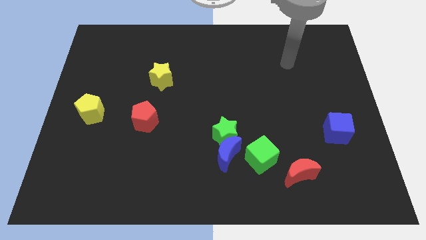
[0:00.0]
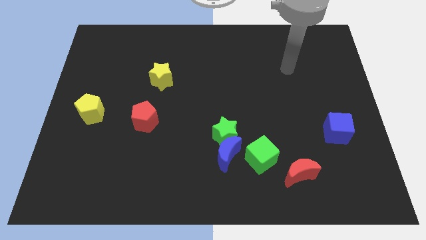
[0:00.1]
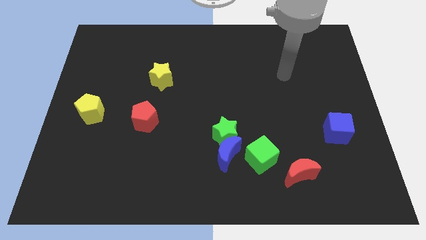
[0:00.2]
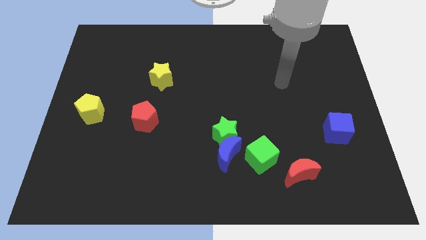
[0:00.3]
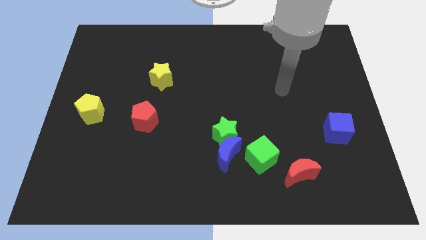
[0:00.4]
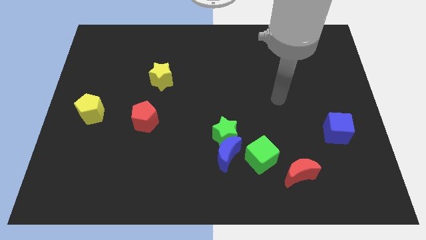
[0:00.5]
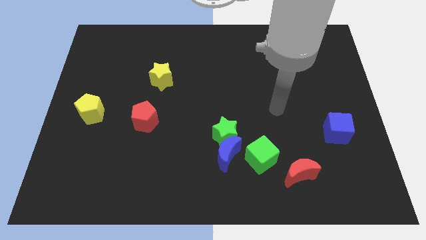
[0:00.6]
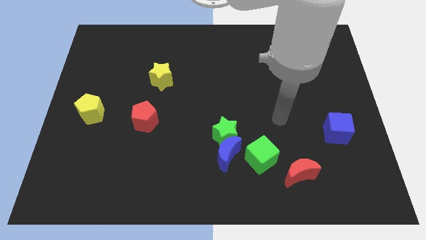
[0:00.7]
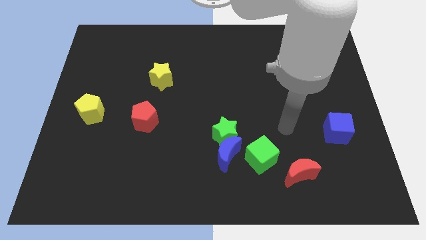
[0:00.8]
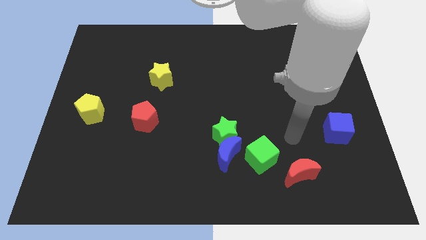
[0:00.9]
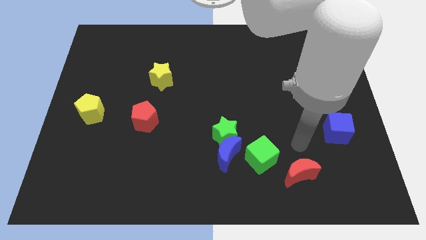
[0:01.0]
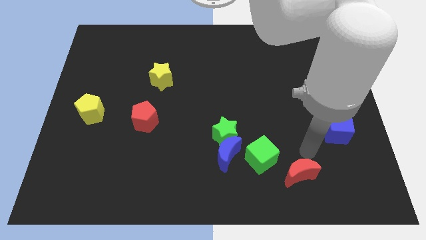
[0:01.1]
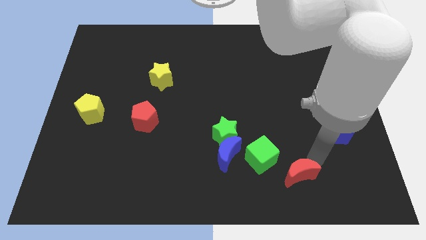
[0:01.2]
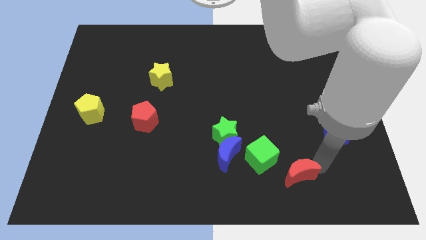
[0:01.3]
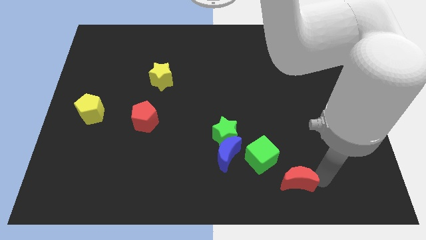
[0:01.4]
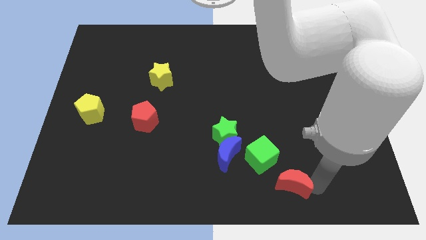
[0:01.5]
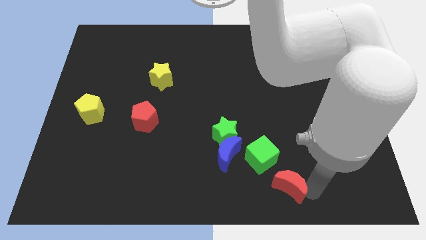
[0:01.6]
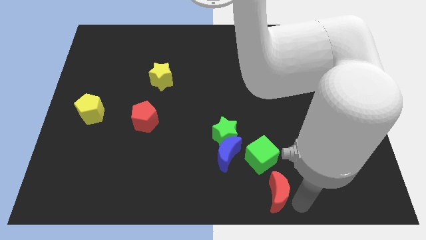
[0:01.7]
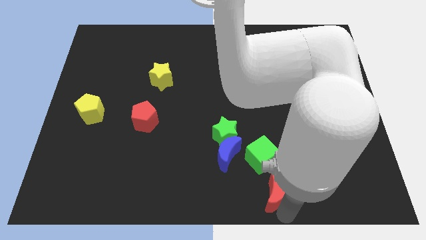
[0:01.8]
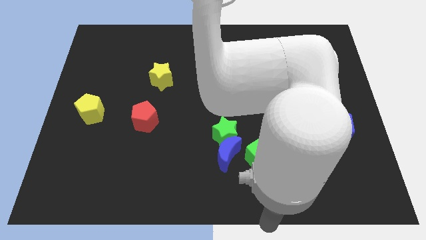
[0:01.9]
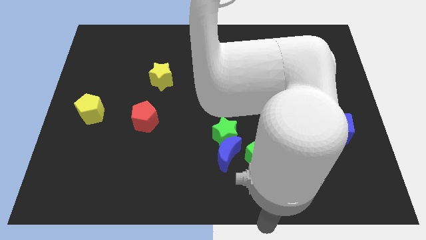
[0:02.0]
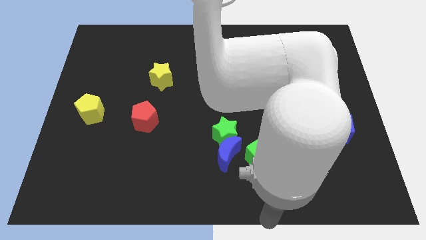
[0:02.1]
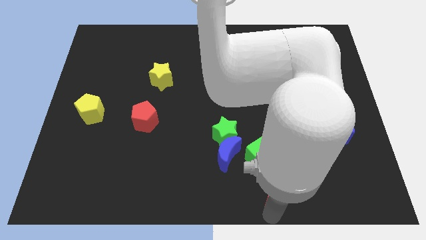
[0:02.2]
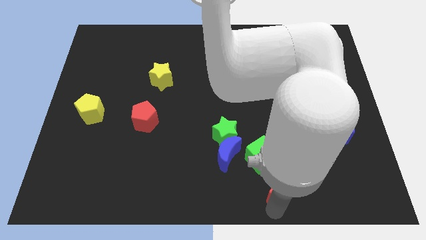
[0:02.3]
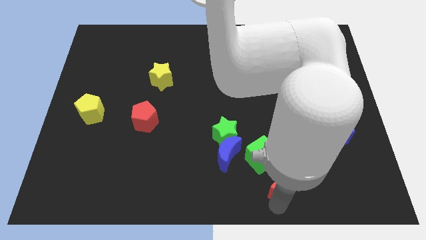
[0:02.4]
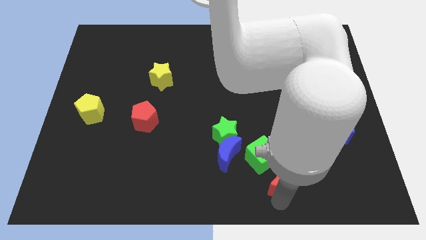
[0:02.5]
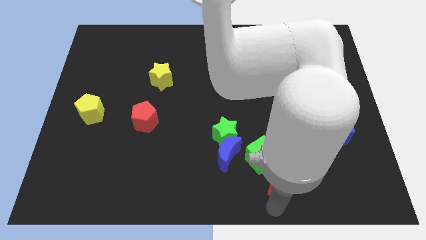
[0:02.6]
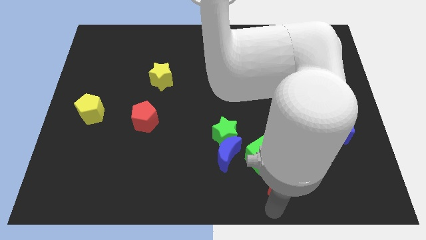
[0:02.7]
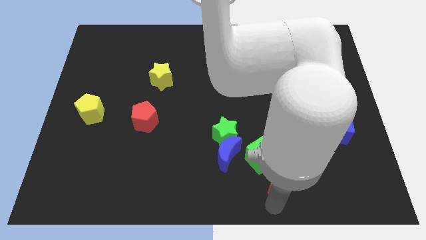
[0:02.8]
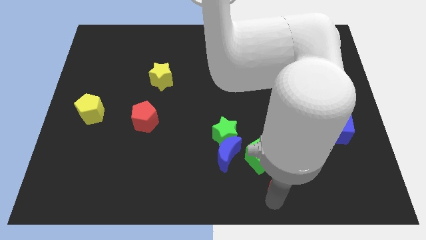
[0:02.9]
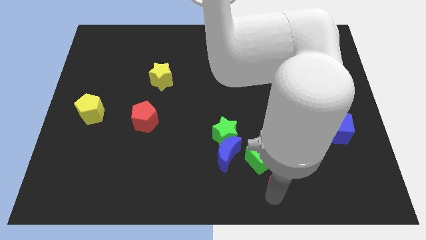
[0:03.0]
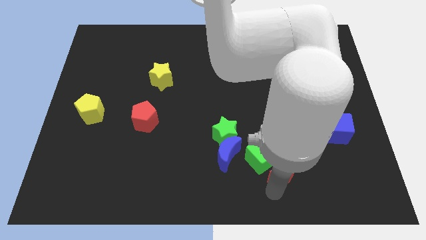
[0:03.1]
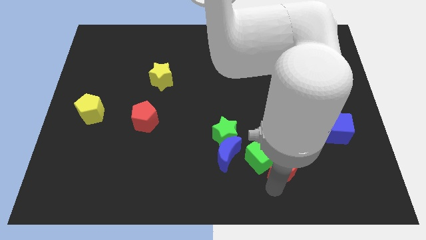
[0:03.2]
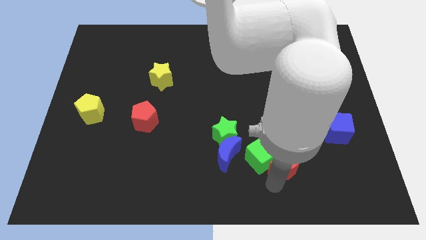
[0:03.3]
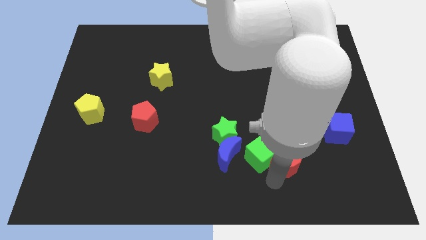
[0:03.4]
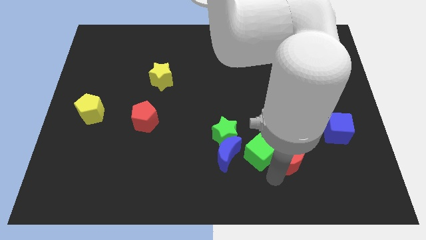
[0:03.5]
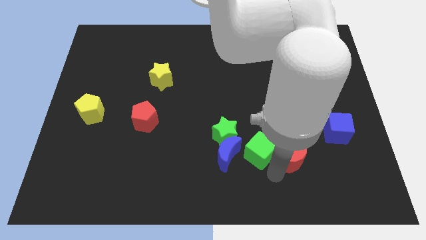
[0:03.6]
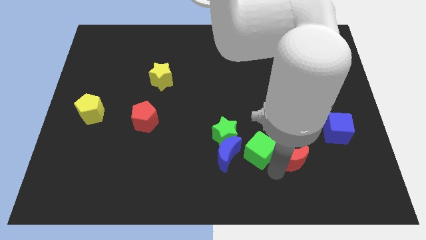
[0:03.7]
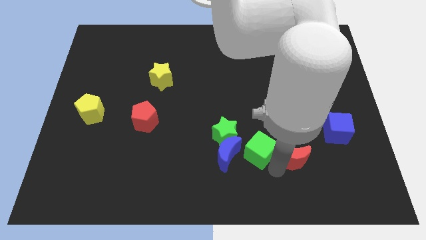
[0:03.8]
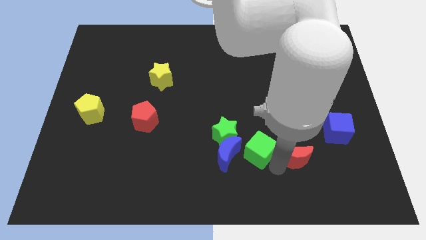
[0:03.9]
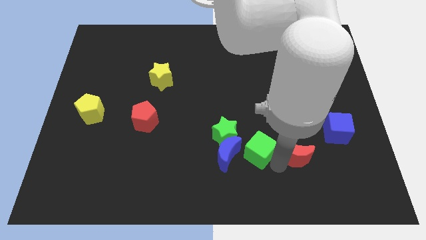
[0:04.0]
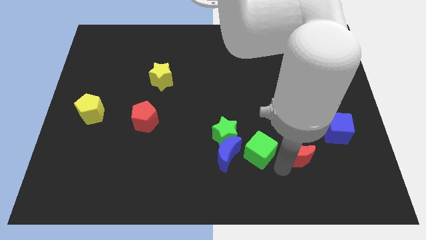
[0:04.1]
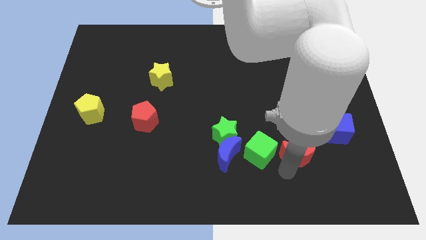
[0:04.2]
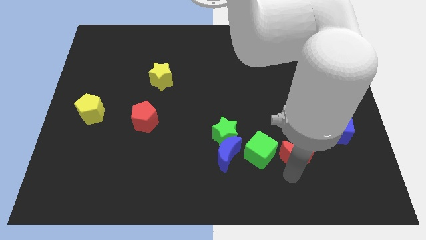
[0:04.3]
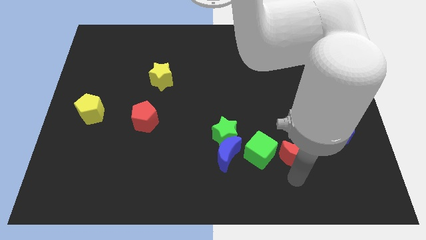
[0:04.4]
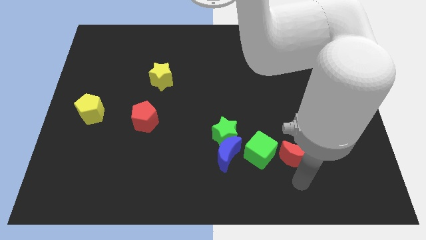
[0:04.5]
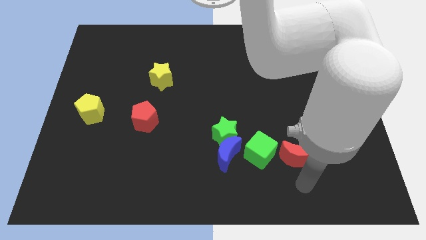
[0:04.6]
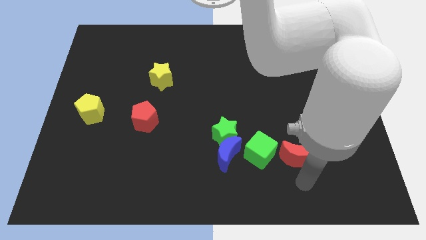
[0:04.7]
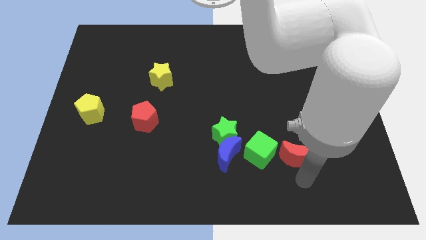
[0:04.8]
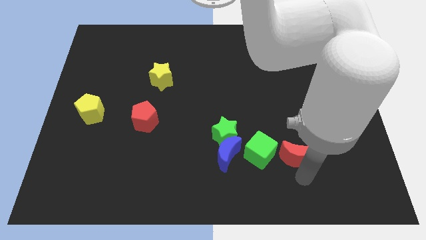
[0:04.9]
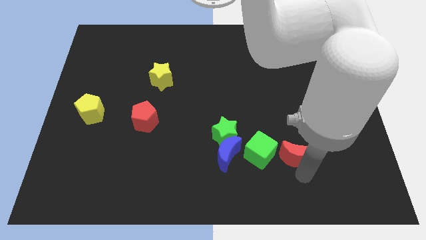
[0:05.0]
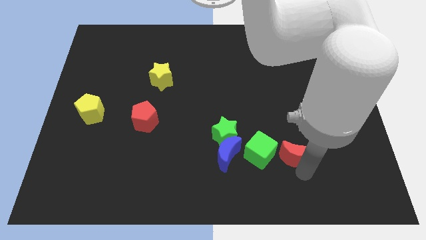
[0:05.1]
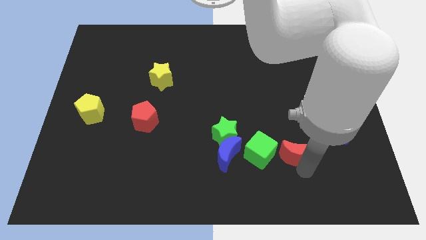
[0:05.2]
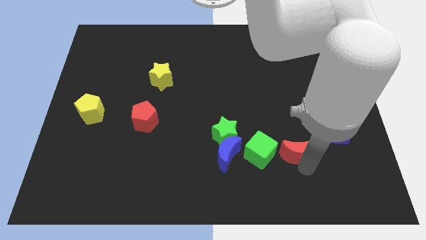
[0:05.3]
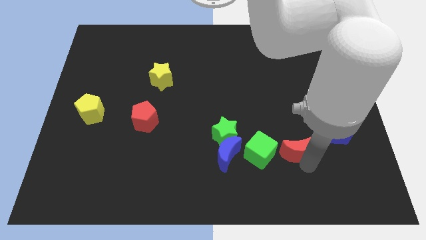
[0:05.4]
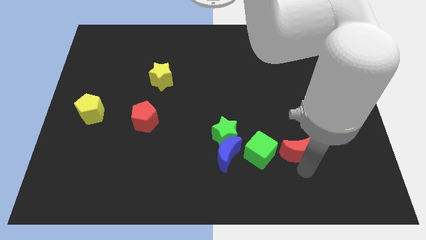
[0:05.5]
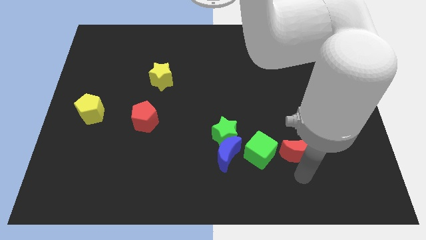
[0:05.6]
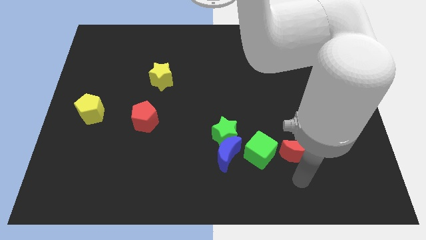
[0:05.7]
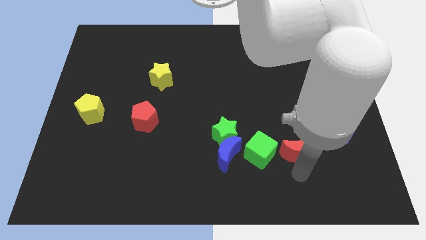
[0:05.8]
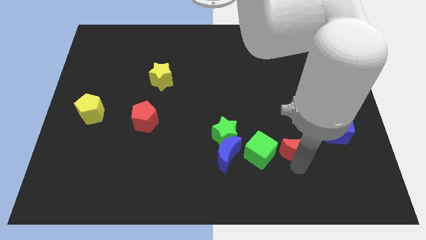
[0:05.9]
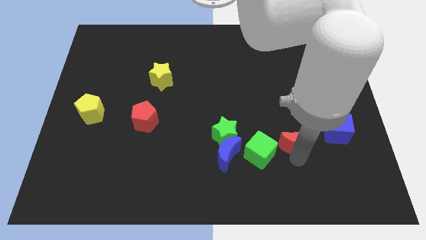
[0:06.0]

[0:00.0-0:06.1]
slide the red moon a little up

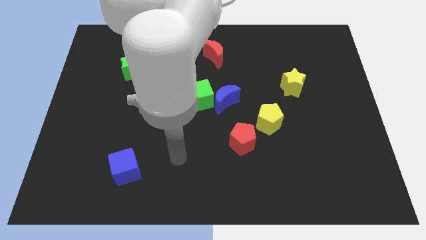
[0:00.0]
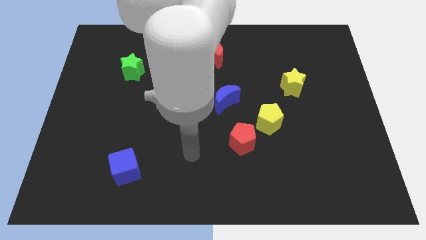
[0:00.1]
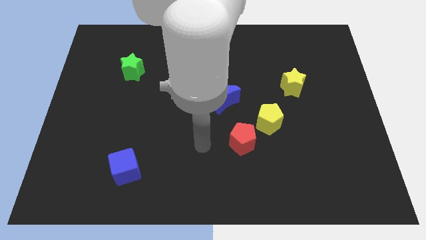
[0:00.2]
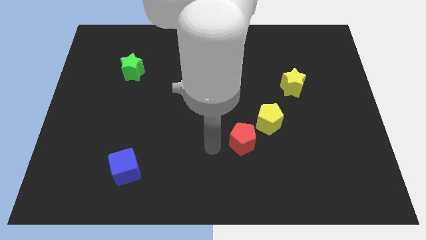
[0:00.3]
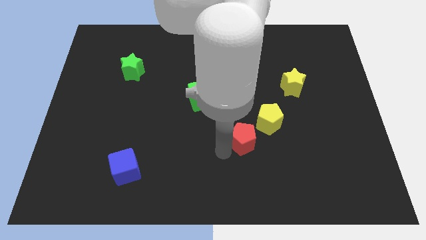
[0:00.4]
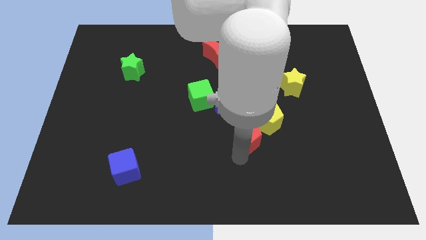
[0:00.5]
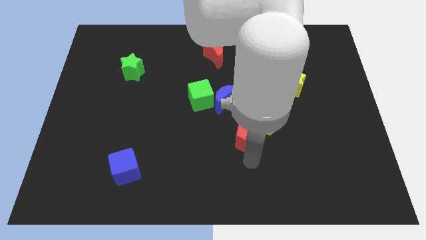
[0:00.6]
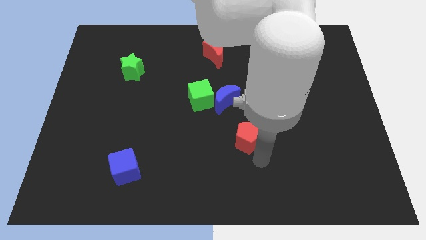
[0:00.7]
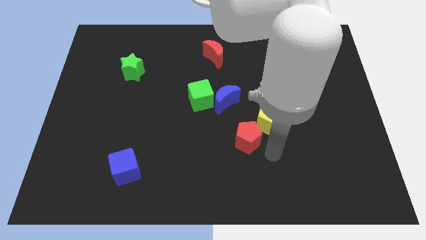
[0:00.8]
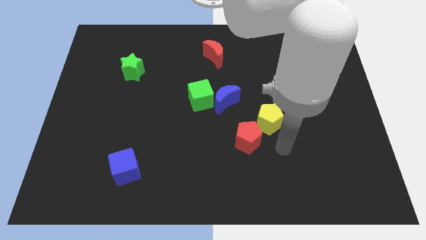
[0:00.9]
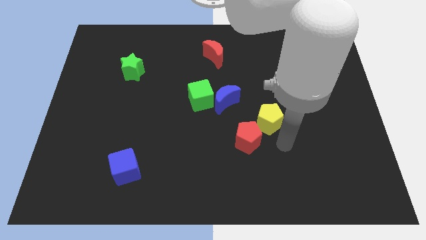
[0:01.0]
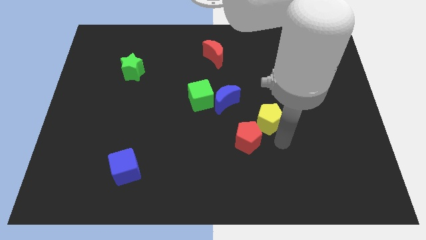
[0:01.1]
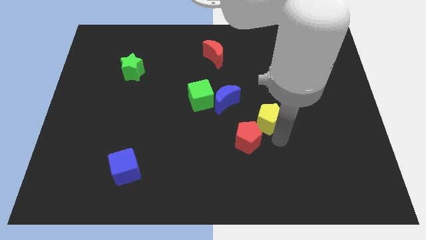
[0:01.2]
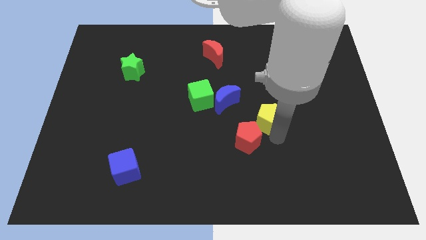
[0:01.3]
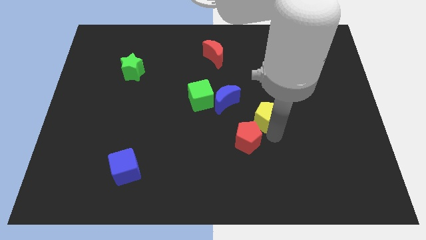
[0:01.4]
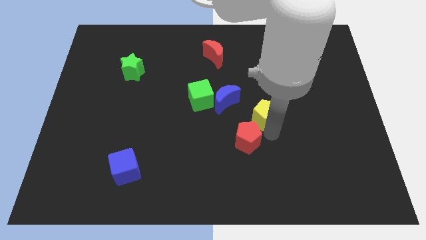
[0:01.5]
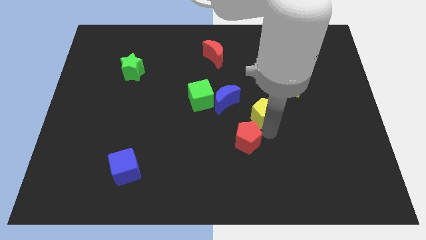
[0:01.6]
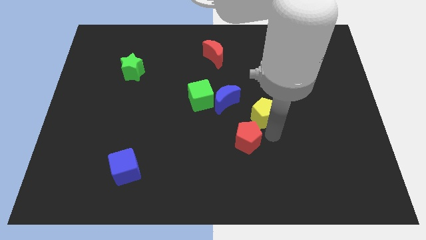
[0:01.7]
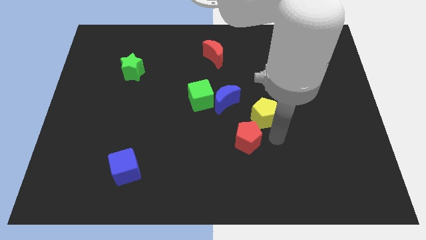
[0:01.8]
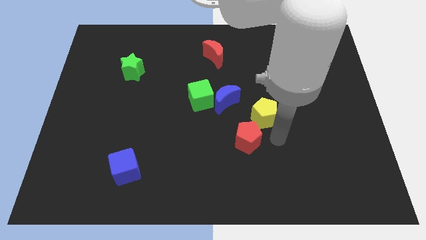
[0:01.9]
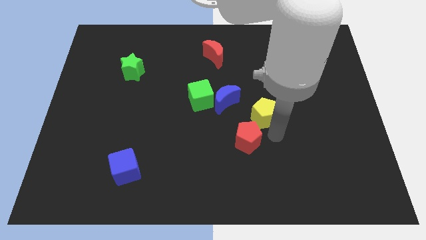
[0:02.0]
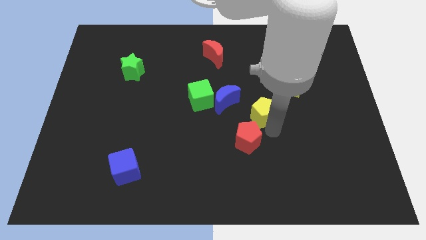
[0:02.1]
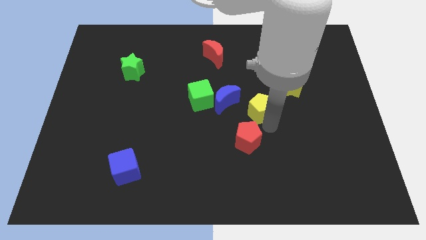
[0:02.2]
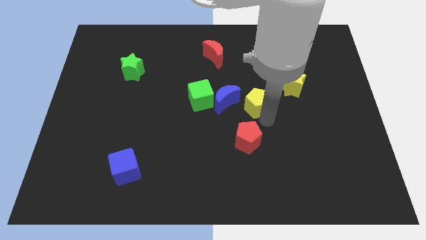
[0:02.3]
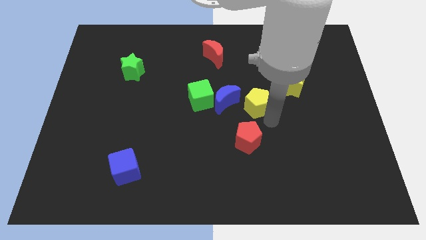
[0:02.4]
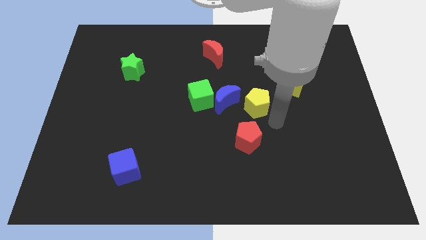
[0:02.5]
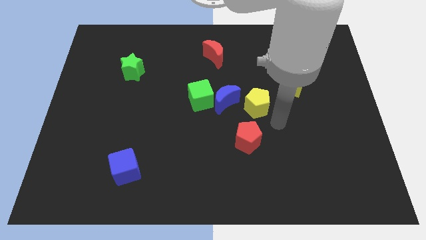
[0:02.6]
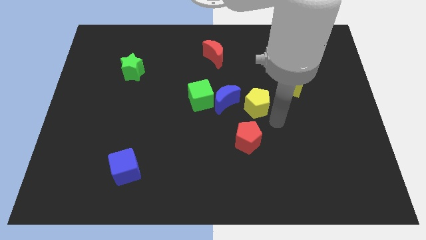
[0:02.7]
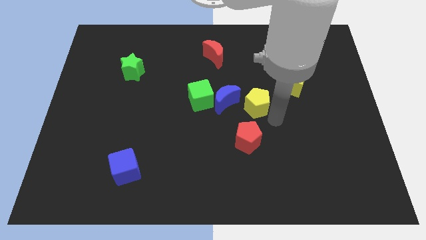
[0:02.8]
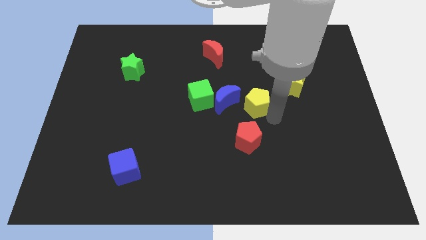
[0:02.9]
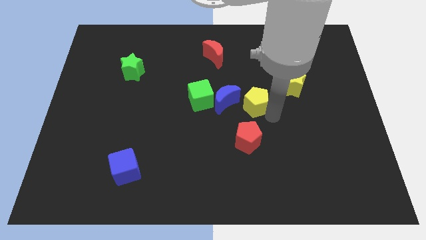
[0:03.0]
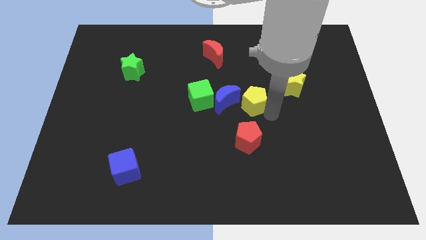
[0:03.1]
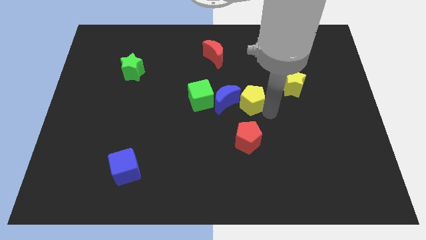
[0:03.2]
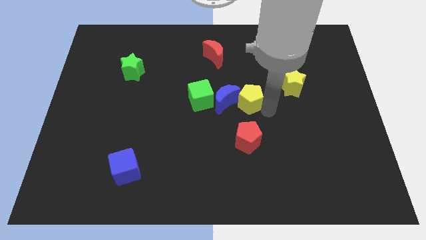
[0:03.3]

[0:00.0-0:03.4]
slide the yellow pentagon somewhat upwards and left
